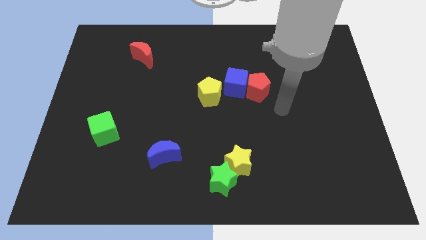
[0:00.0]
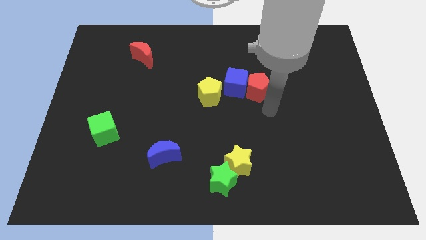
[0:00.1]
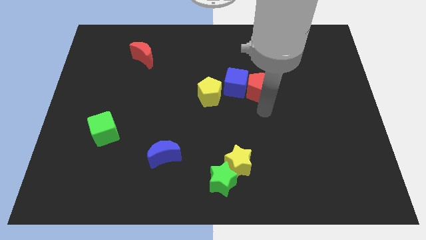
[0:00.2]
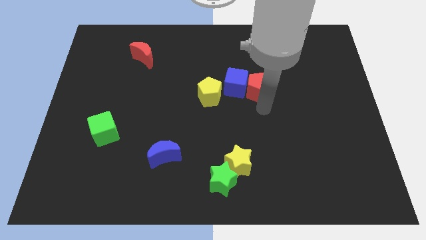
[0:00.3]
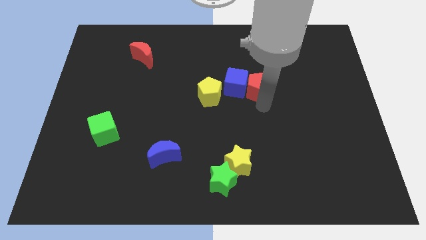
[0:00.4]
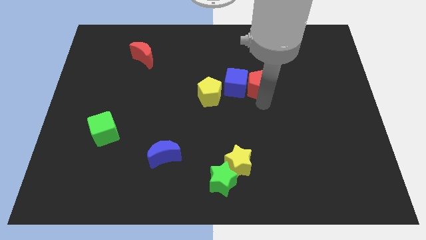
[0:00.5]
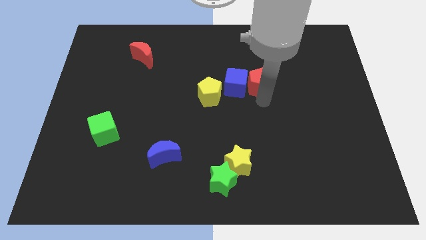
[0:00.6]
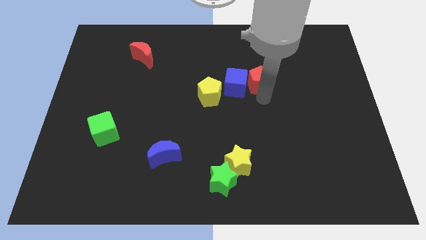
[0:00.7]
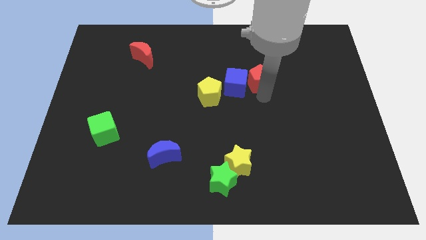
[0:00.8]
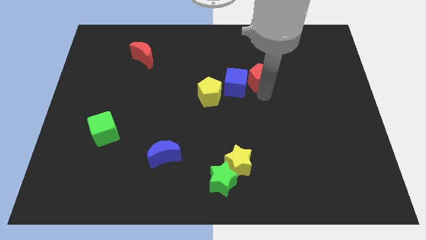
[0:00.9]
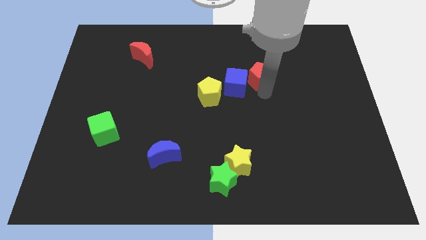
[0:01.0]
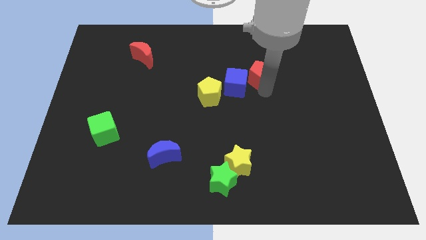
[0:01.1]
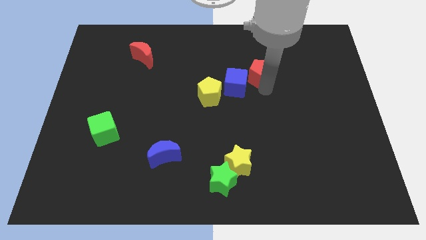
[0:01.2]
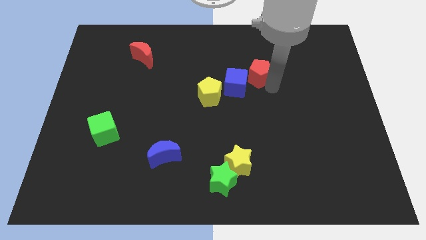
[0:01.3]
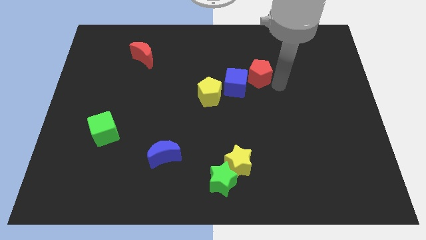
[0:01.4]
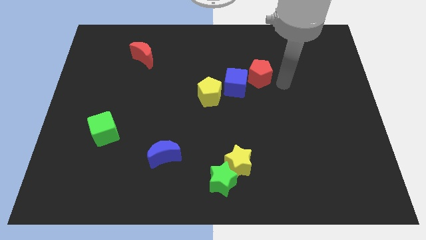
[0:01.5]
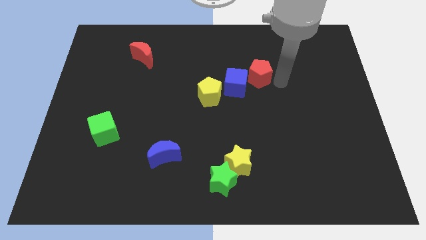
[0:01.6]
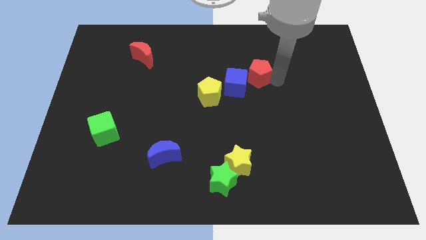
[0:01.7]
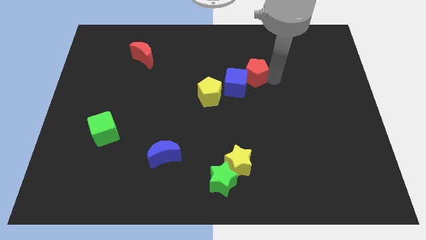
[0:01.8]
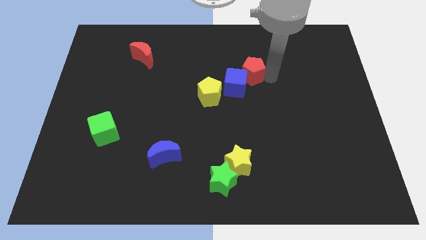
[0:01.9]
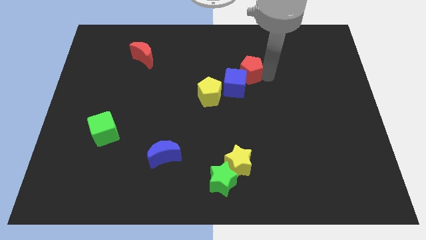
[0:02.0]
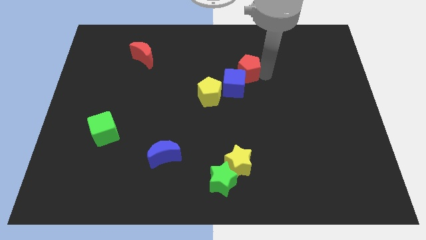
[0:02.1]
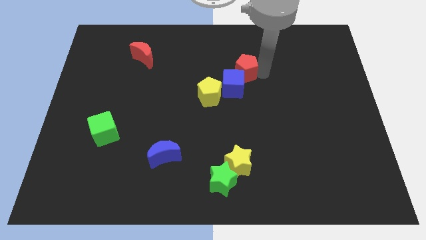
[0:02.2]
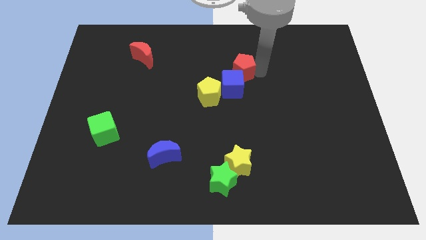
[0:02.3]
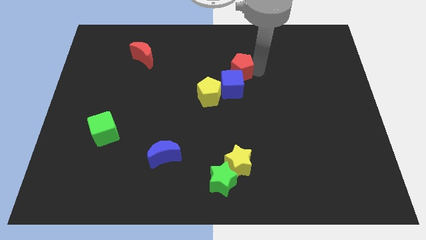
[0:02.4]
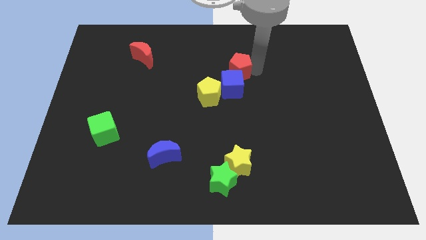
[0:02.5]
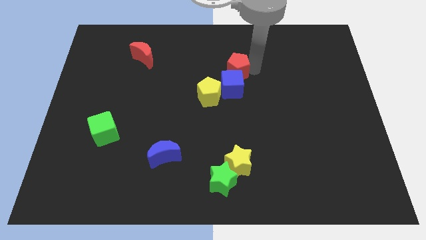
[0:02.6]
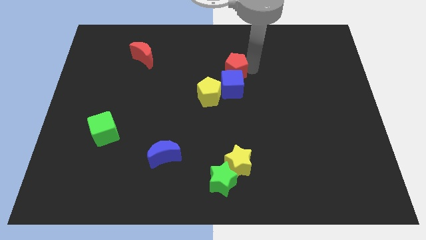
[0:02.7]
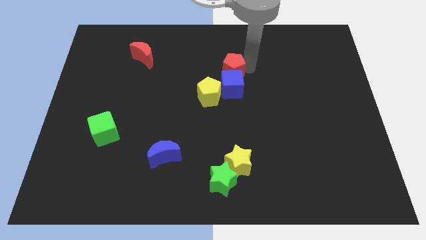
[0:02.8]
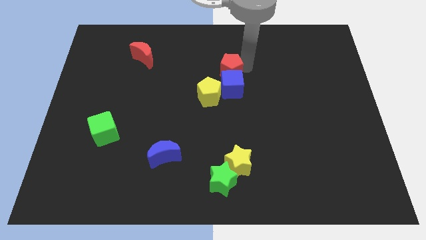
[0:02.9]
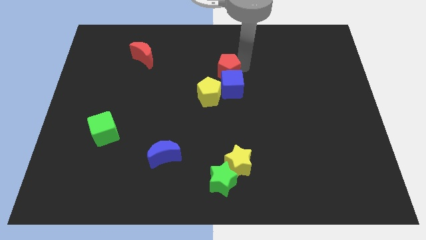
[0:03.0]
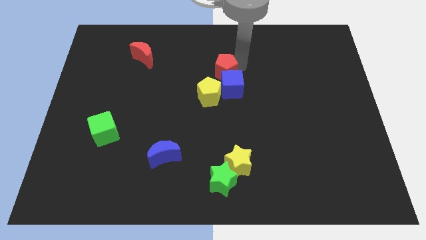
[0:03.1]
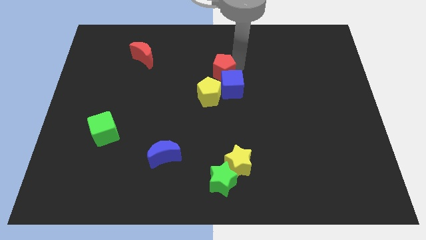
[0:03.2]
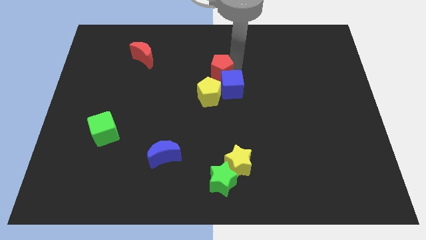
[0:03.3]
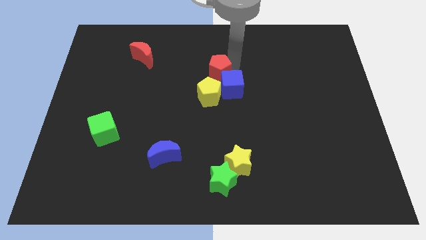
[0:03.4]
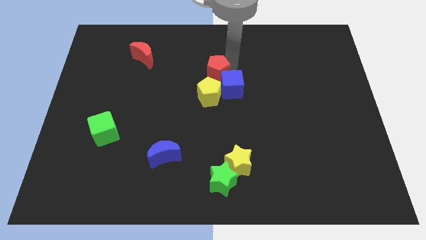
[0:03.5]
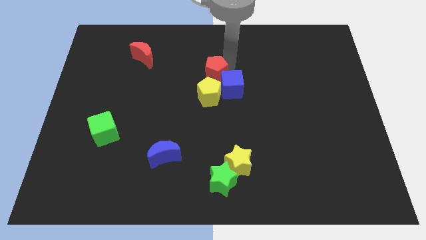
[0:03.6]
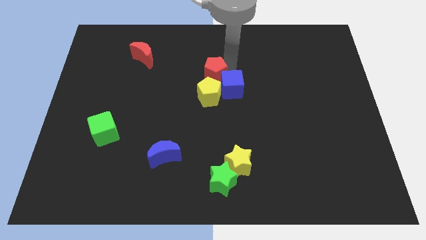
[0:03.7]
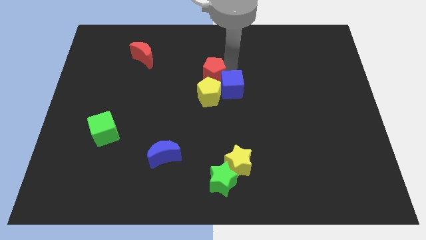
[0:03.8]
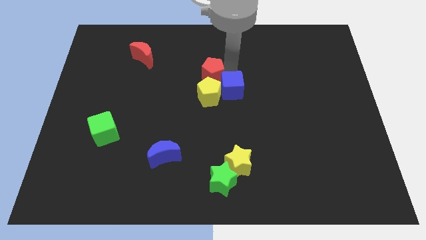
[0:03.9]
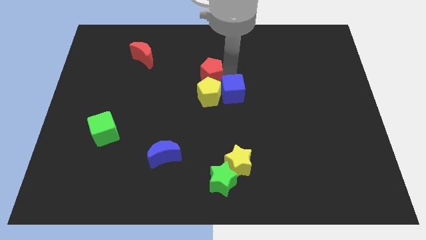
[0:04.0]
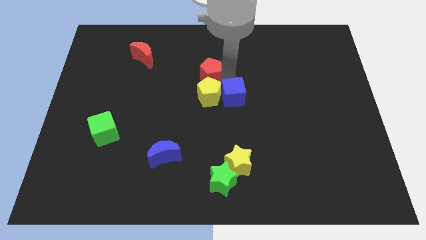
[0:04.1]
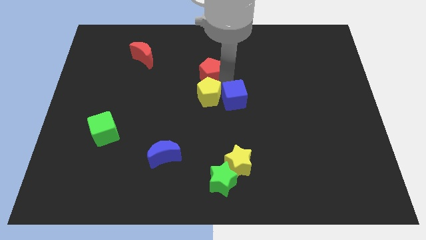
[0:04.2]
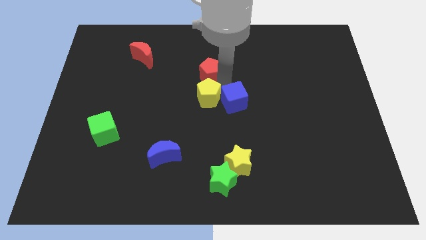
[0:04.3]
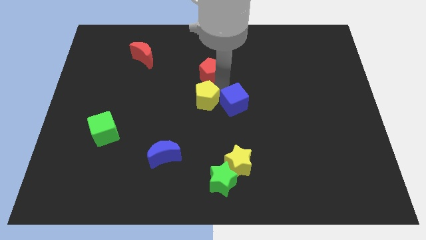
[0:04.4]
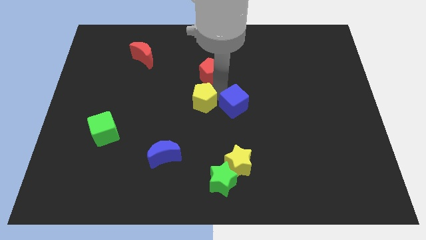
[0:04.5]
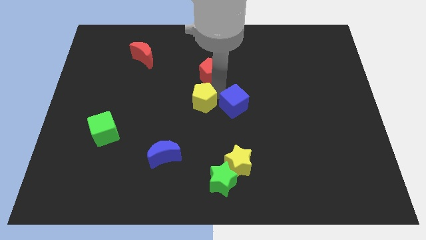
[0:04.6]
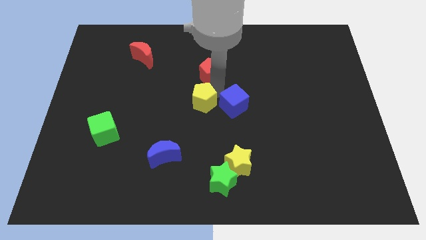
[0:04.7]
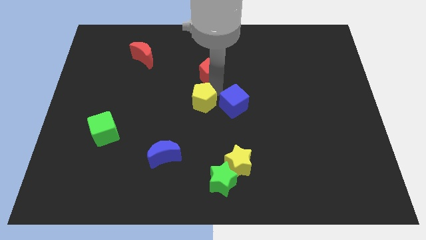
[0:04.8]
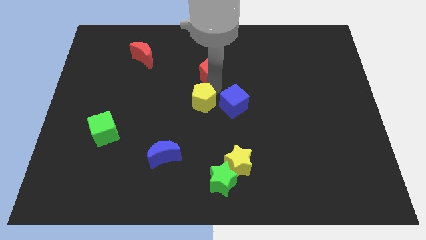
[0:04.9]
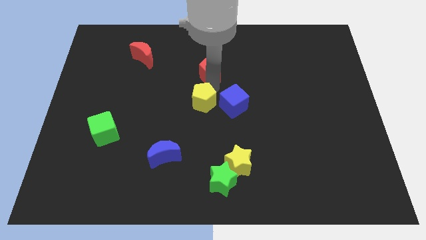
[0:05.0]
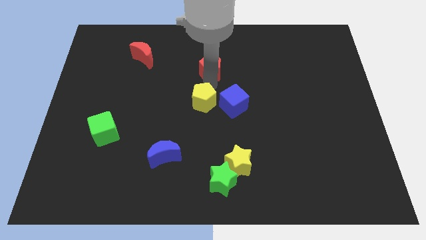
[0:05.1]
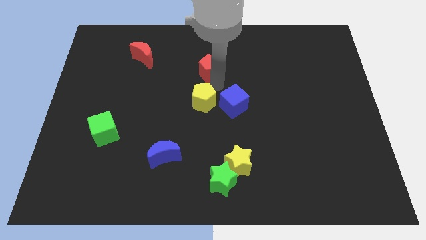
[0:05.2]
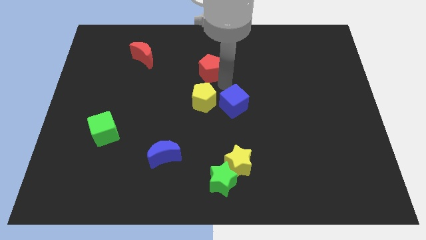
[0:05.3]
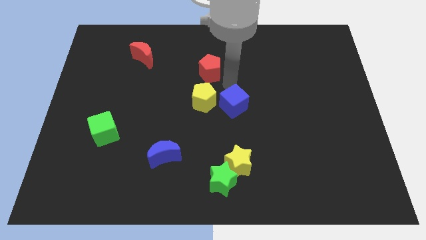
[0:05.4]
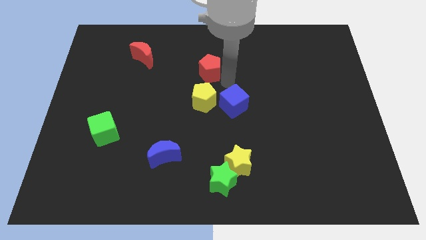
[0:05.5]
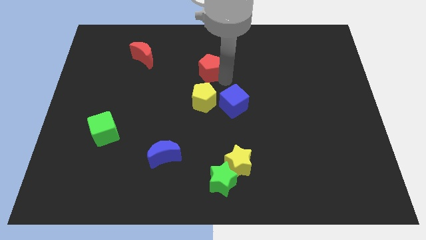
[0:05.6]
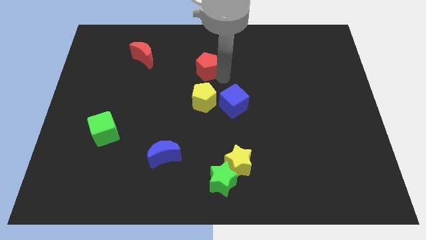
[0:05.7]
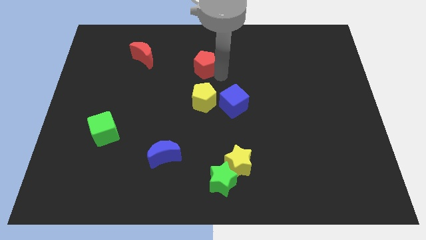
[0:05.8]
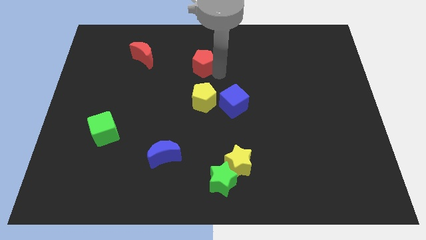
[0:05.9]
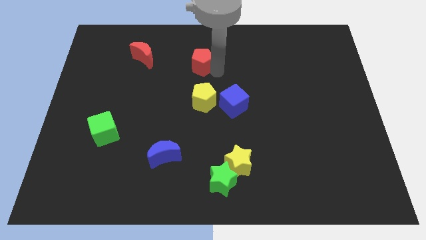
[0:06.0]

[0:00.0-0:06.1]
slide the red pentagon to the right of the red moon
